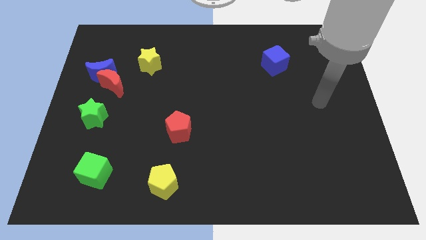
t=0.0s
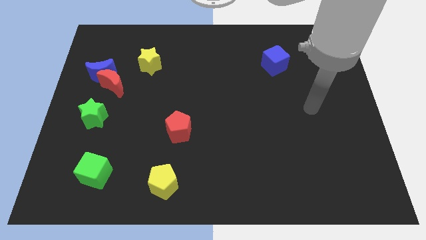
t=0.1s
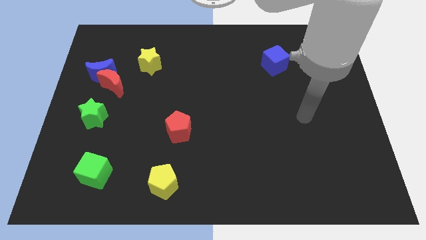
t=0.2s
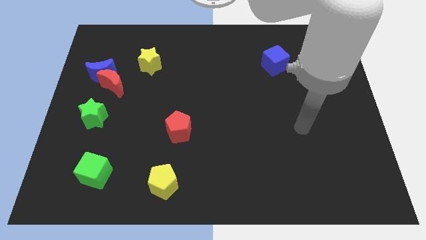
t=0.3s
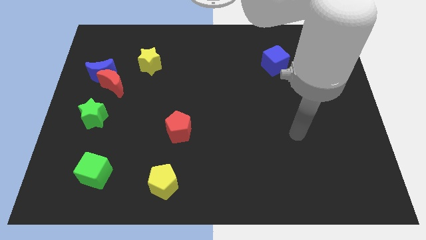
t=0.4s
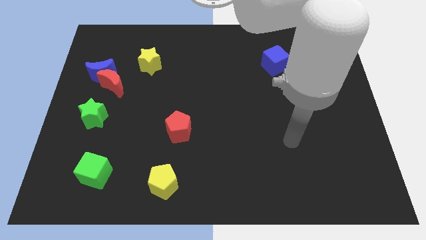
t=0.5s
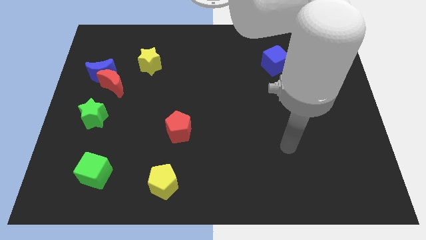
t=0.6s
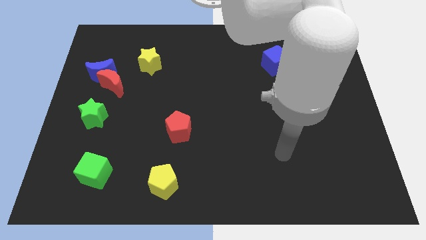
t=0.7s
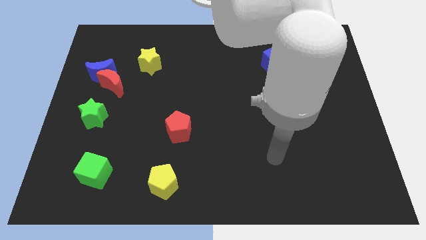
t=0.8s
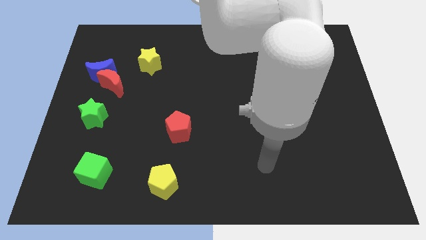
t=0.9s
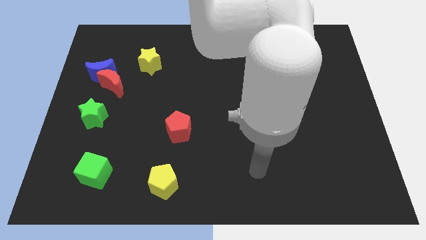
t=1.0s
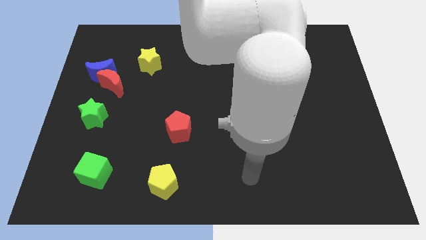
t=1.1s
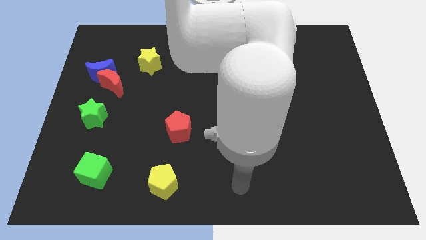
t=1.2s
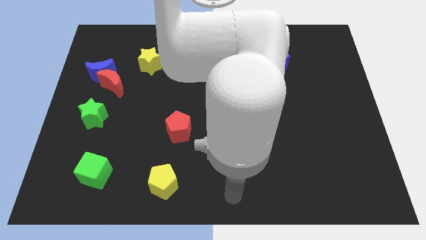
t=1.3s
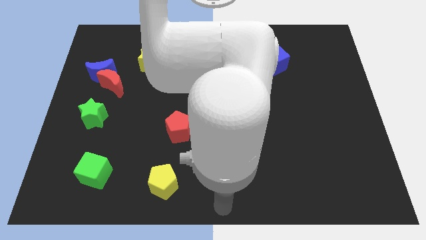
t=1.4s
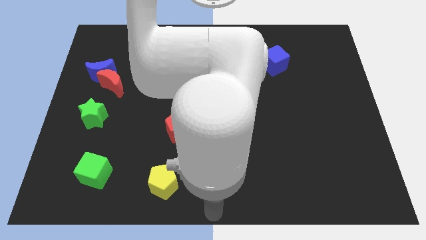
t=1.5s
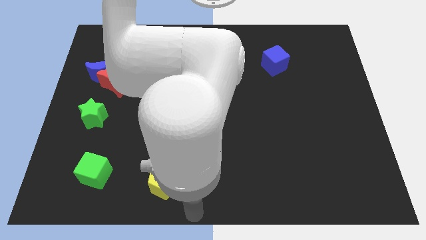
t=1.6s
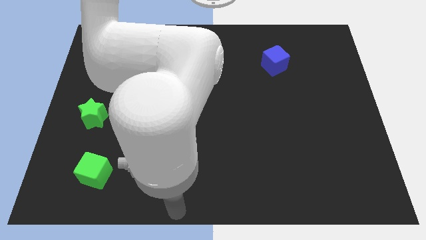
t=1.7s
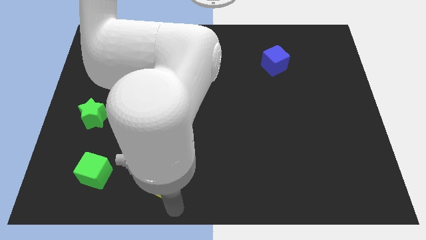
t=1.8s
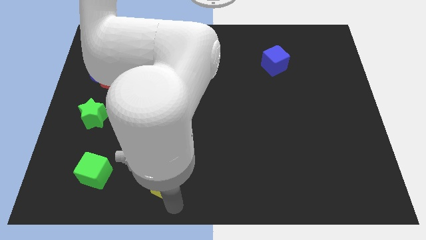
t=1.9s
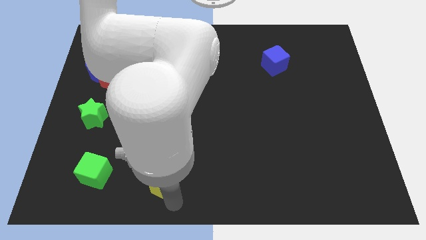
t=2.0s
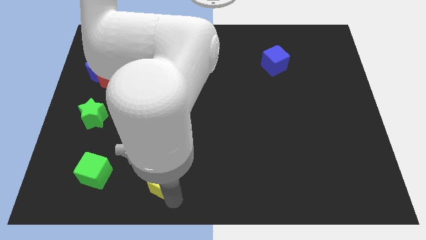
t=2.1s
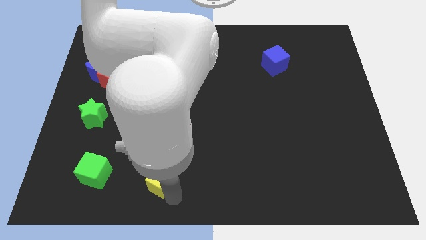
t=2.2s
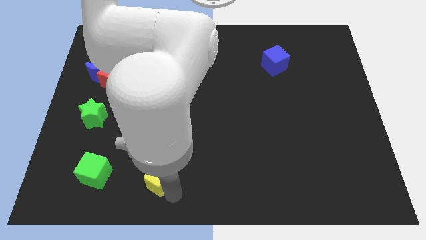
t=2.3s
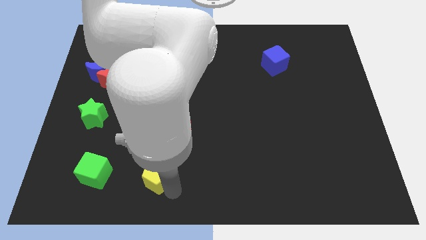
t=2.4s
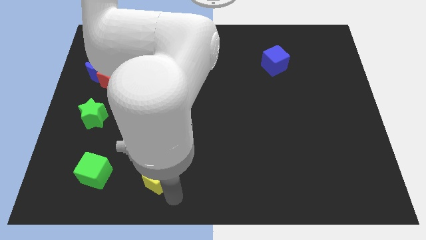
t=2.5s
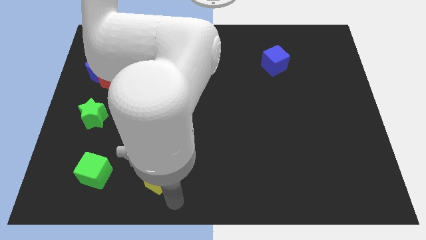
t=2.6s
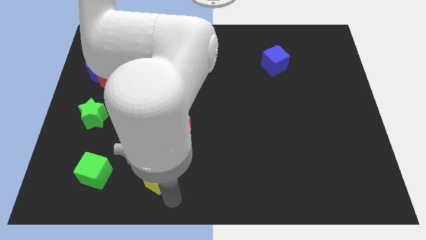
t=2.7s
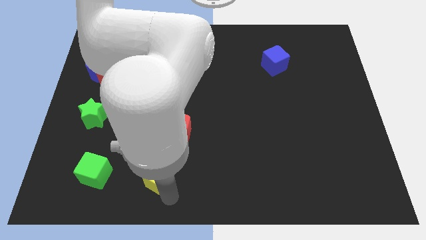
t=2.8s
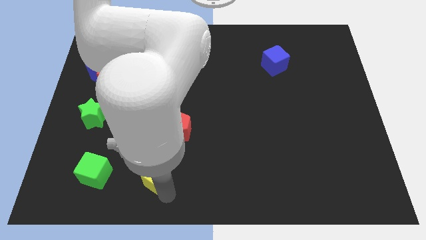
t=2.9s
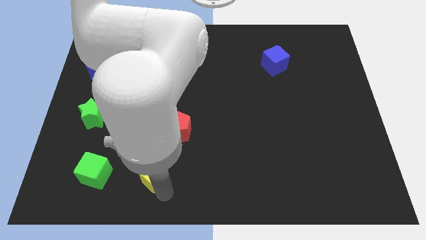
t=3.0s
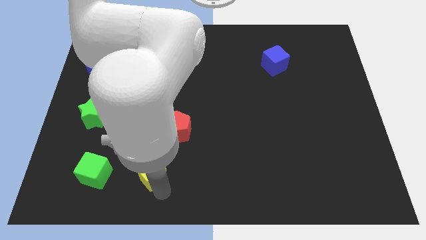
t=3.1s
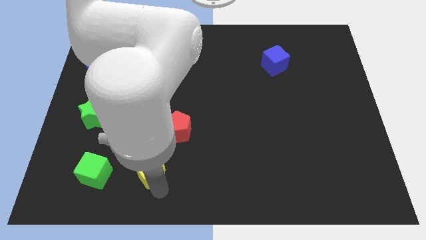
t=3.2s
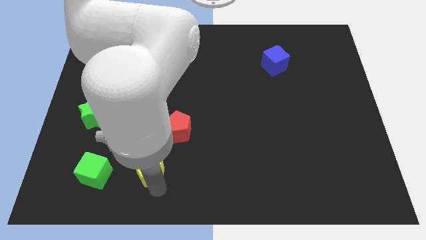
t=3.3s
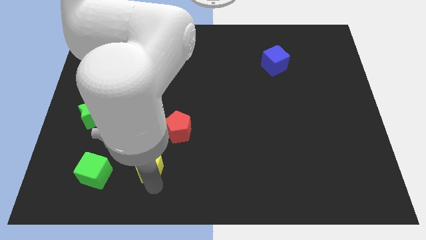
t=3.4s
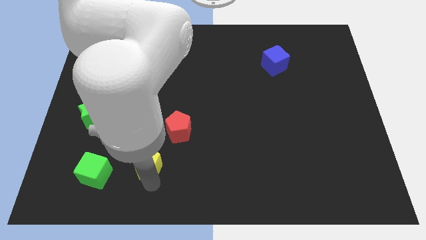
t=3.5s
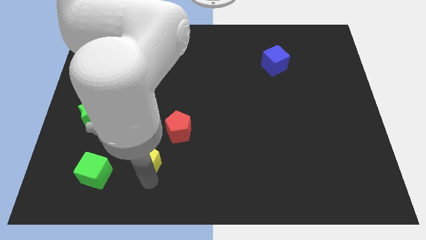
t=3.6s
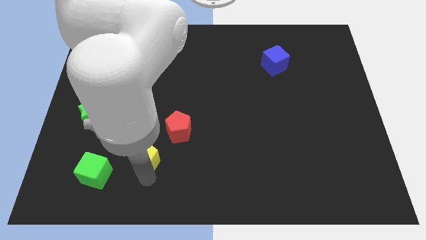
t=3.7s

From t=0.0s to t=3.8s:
slightly push the yellow pentagon upwards and left

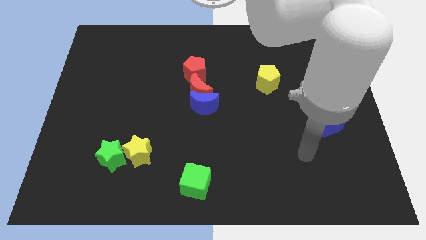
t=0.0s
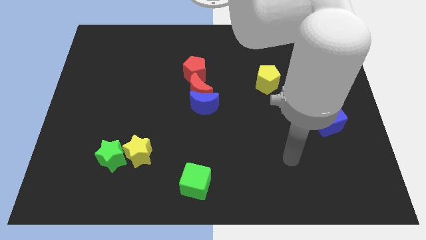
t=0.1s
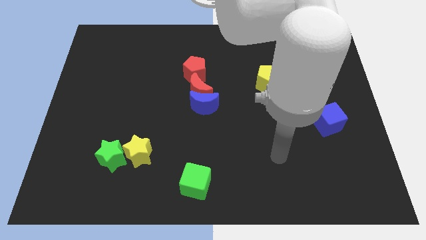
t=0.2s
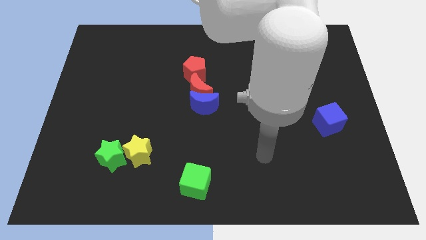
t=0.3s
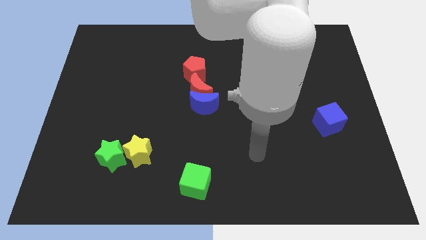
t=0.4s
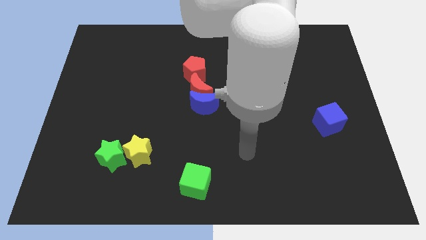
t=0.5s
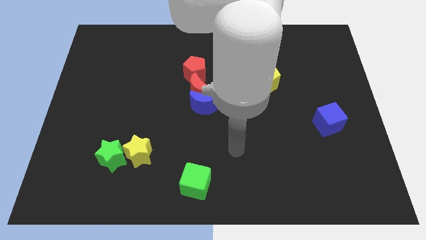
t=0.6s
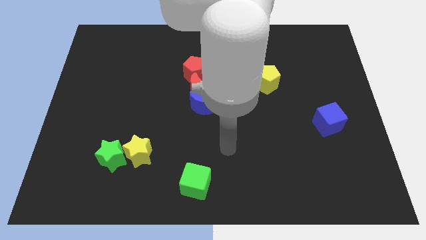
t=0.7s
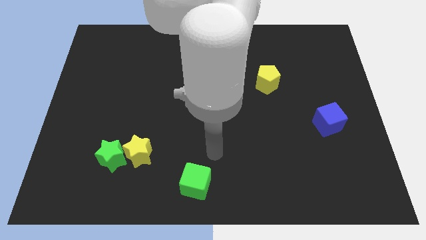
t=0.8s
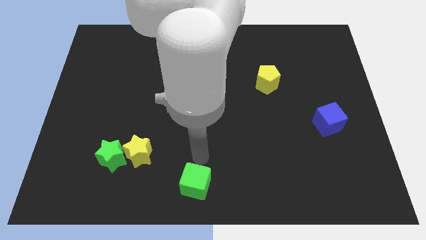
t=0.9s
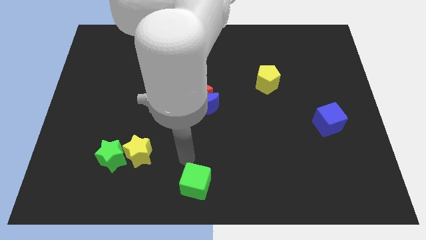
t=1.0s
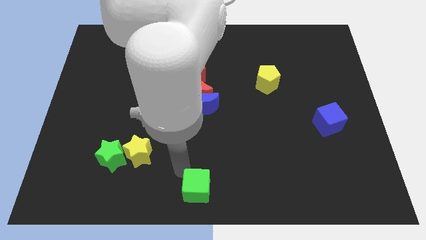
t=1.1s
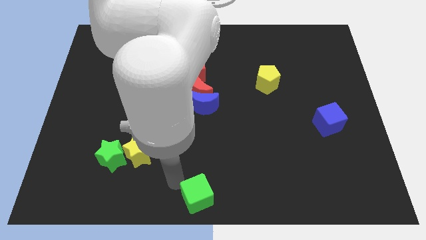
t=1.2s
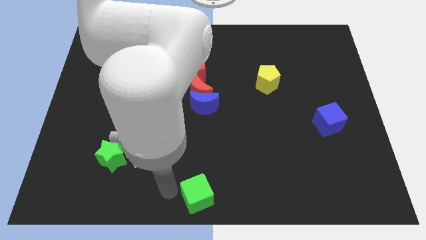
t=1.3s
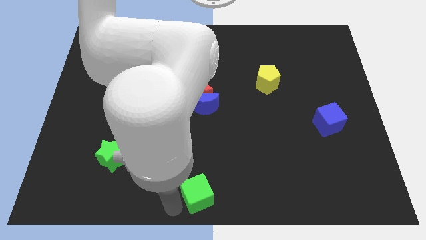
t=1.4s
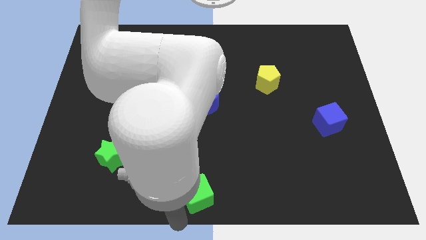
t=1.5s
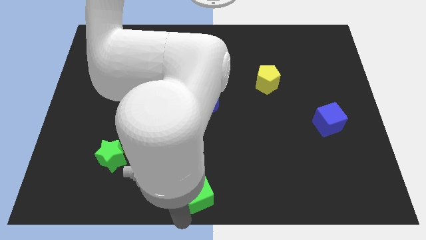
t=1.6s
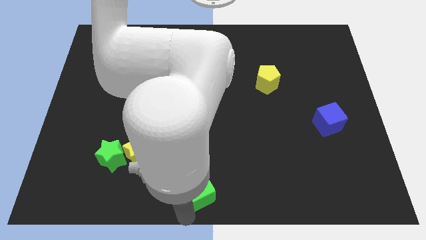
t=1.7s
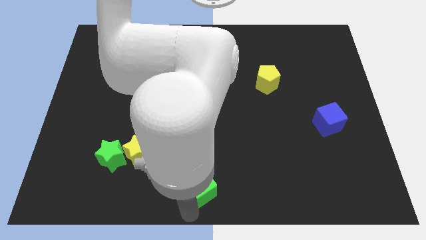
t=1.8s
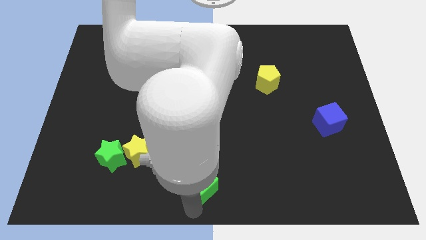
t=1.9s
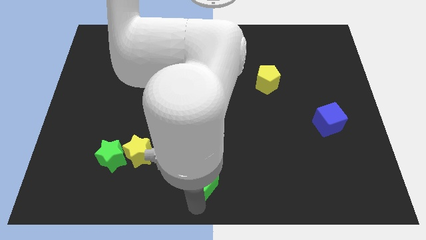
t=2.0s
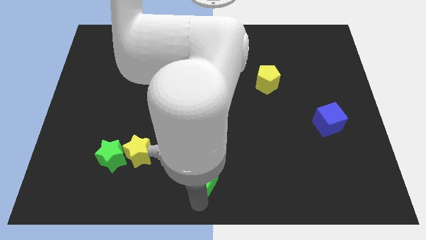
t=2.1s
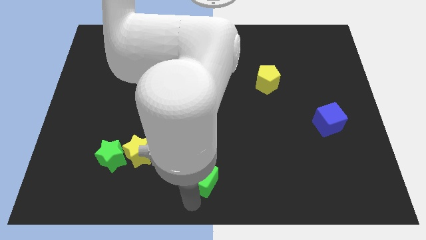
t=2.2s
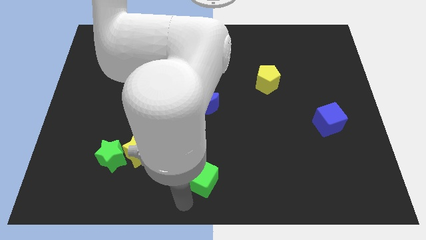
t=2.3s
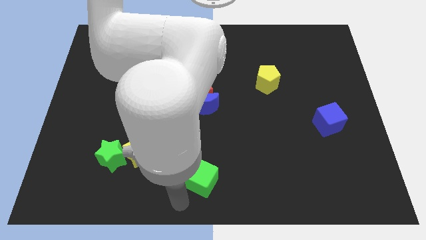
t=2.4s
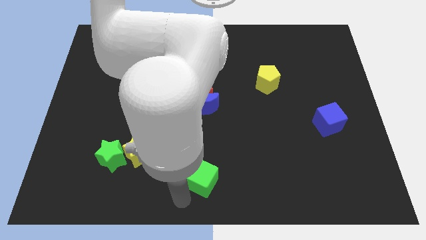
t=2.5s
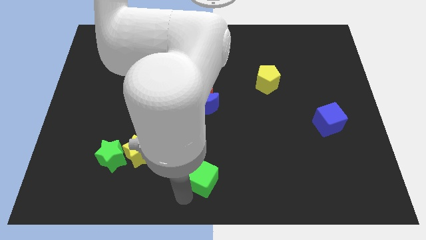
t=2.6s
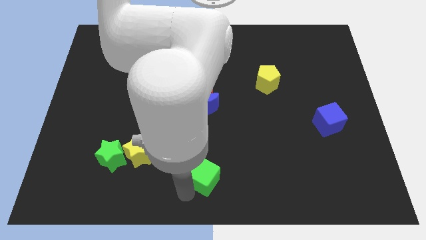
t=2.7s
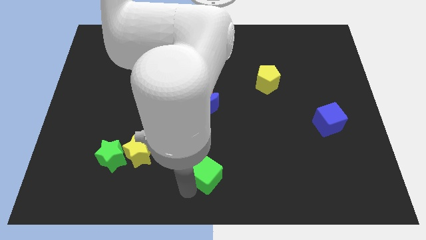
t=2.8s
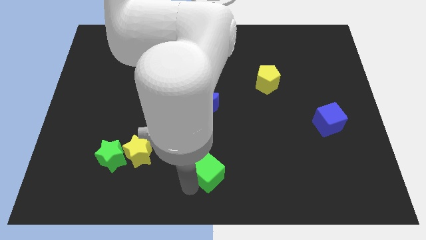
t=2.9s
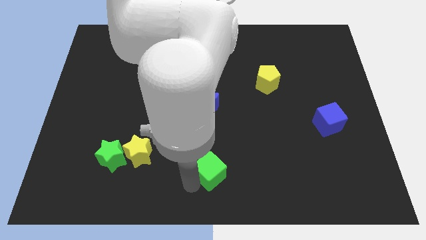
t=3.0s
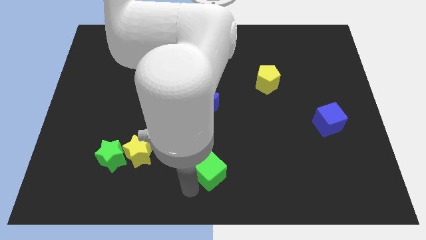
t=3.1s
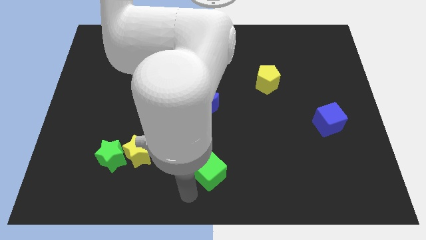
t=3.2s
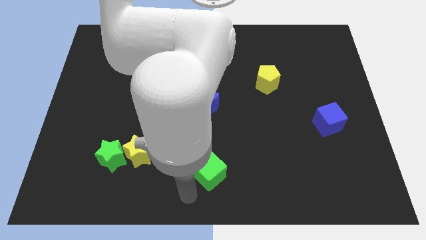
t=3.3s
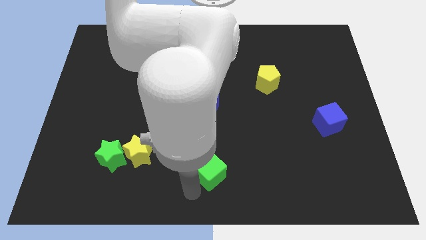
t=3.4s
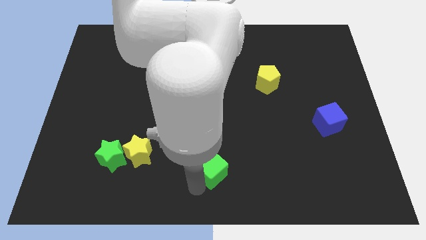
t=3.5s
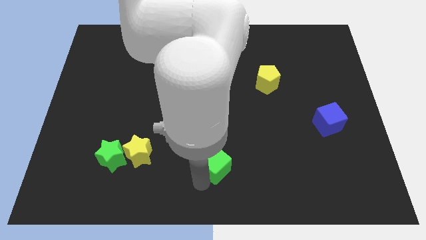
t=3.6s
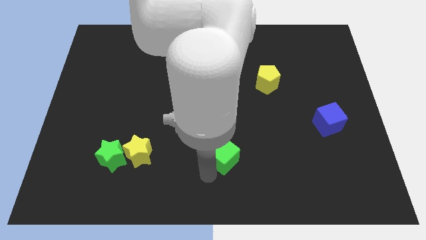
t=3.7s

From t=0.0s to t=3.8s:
push the green cube a little diagonally up and right

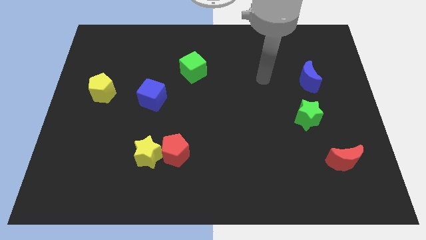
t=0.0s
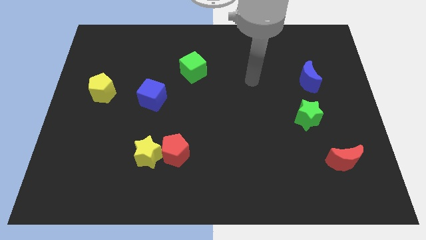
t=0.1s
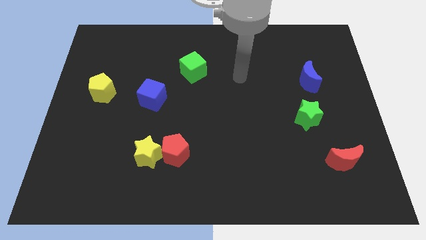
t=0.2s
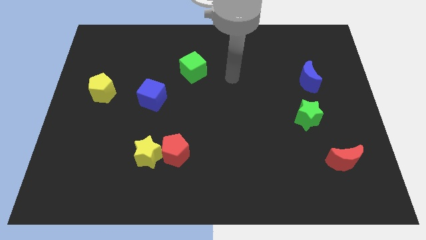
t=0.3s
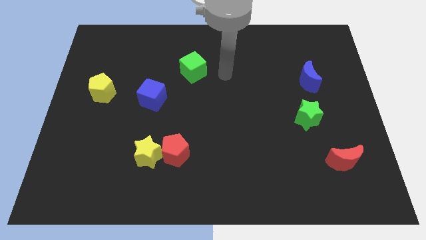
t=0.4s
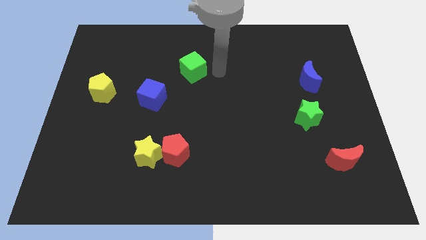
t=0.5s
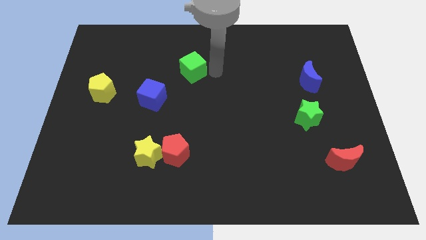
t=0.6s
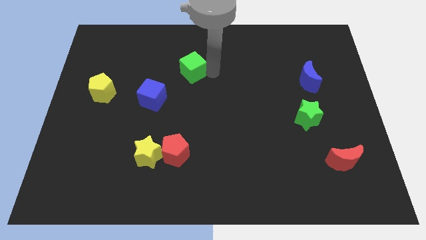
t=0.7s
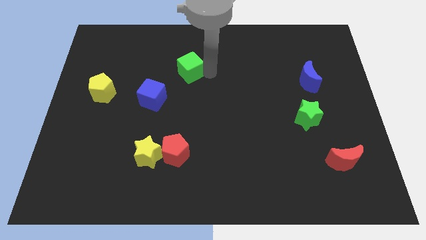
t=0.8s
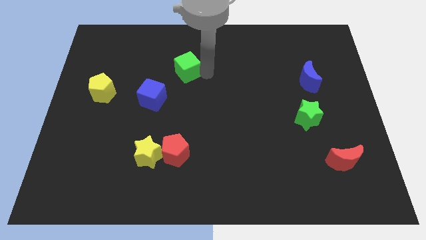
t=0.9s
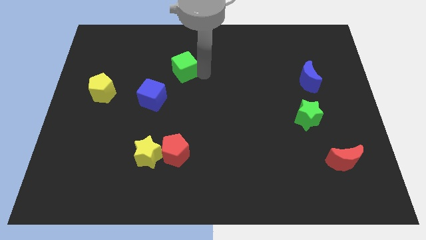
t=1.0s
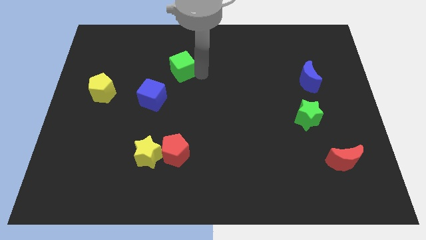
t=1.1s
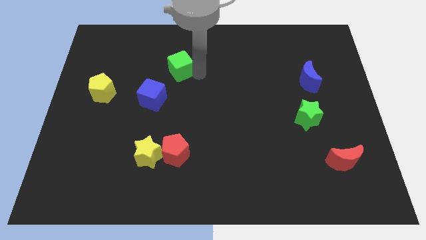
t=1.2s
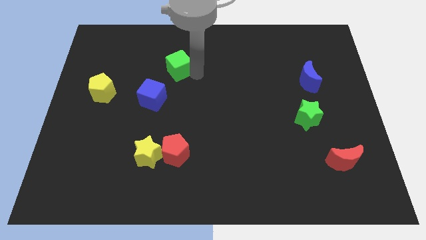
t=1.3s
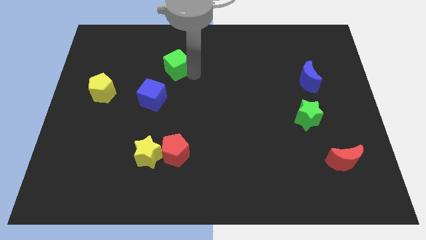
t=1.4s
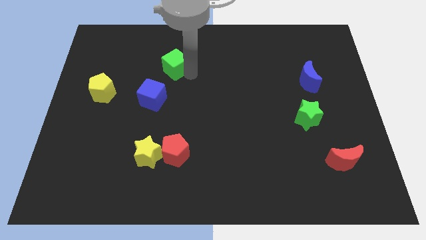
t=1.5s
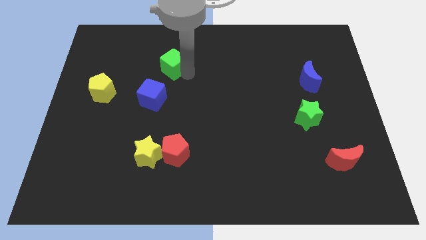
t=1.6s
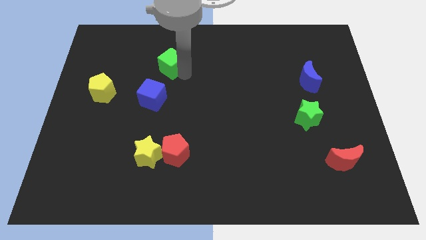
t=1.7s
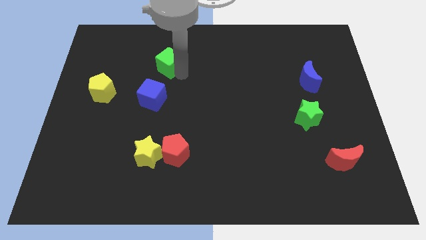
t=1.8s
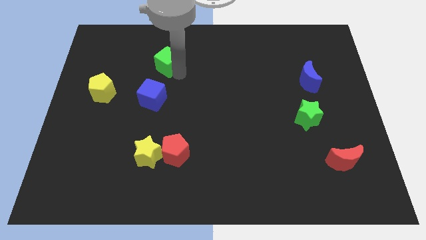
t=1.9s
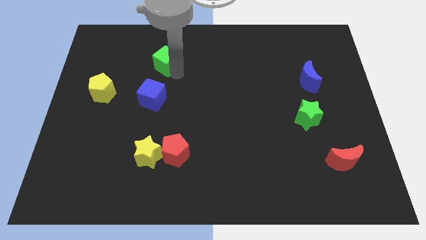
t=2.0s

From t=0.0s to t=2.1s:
slightly push the green cube to the left
